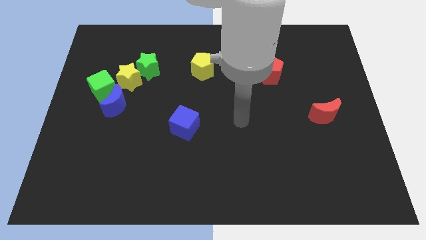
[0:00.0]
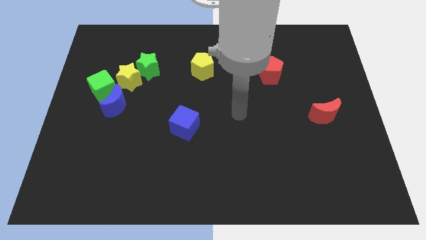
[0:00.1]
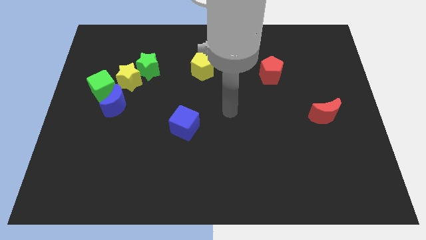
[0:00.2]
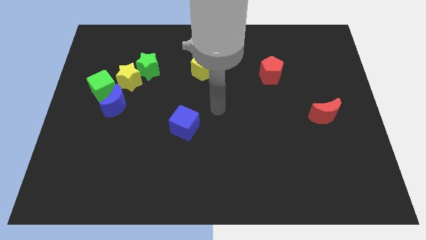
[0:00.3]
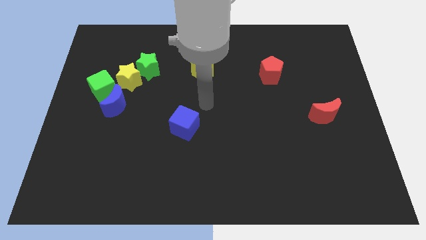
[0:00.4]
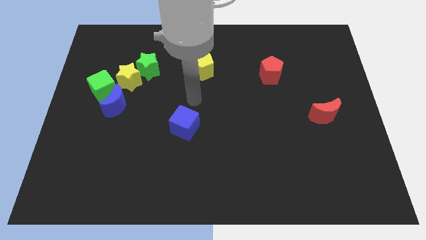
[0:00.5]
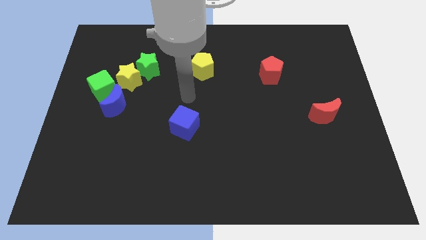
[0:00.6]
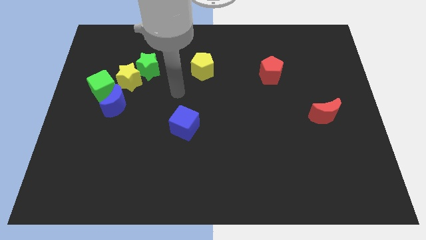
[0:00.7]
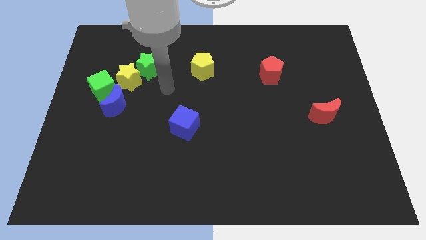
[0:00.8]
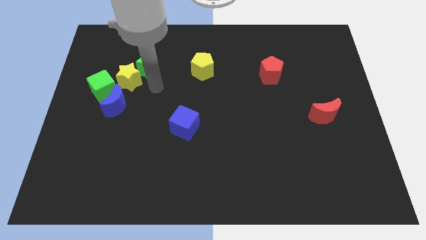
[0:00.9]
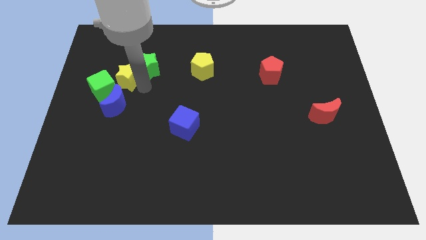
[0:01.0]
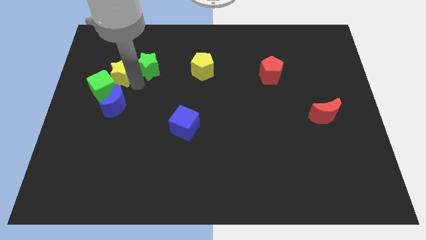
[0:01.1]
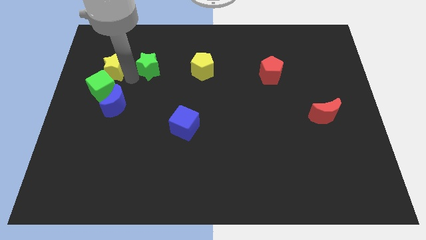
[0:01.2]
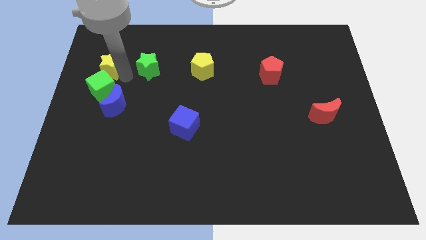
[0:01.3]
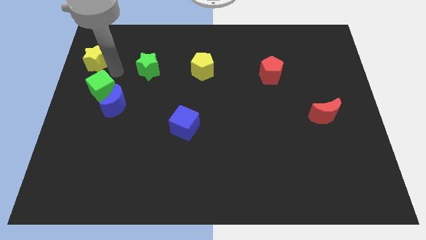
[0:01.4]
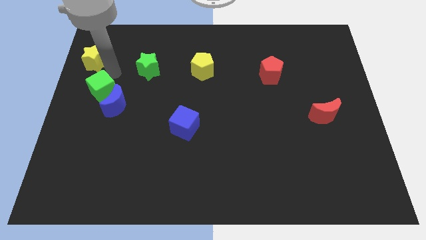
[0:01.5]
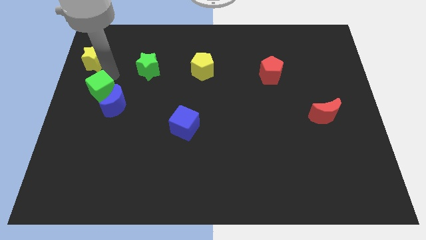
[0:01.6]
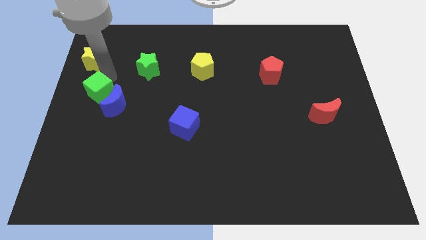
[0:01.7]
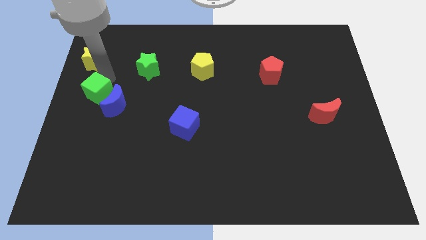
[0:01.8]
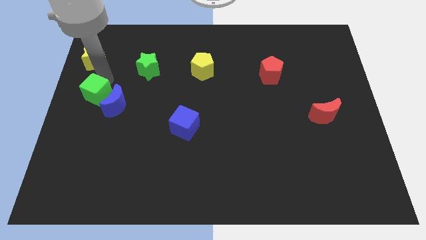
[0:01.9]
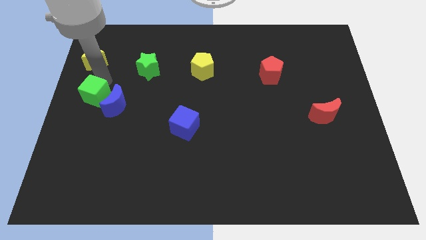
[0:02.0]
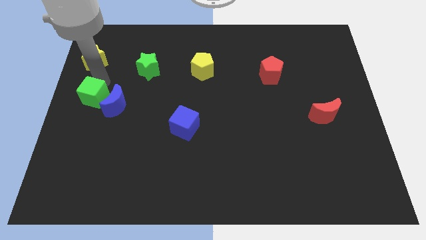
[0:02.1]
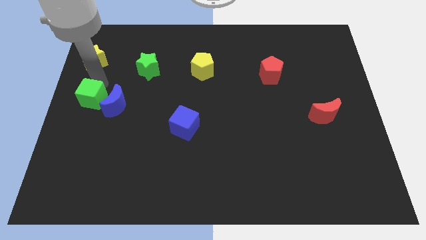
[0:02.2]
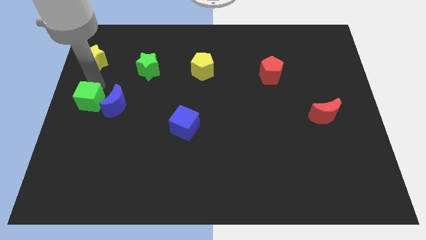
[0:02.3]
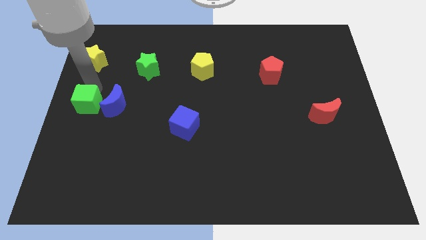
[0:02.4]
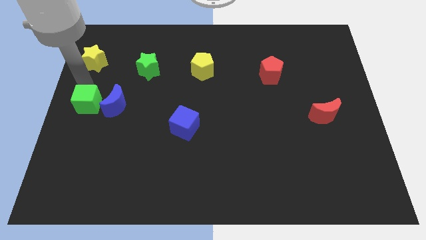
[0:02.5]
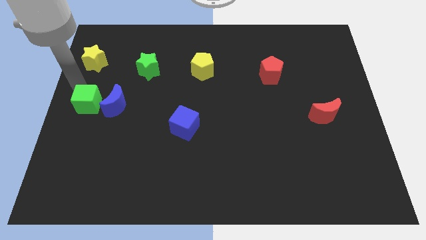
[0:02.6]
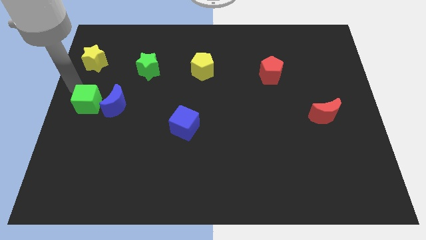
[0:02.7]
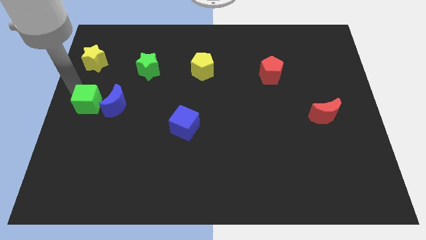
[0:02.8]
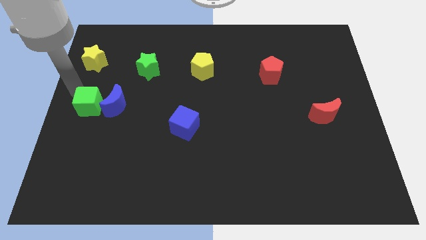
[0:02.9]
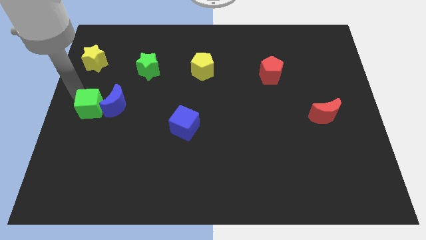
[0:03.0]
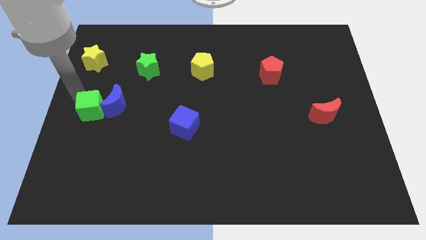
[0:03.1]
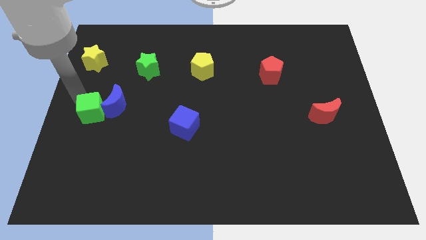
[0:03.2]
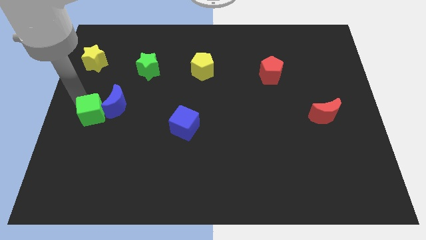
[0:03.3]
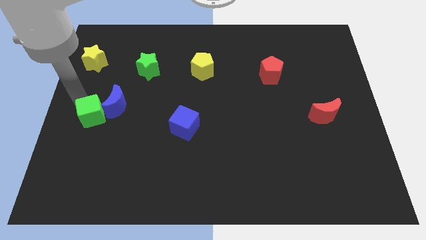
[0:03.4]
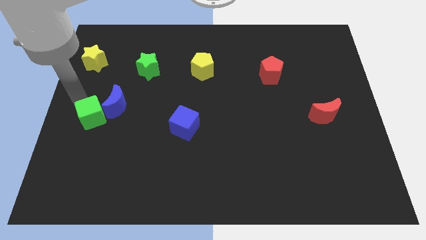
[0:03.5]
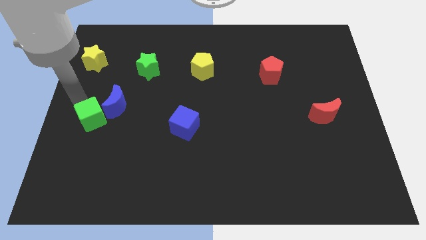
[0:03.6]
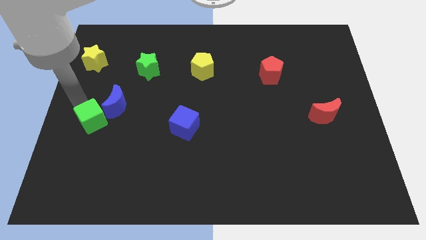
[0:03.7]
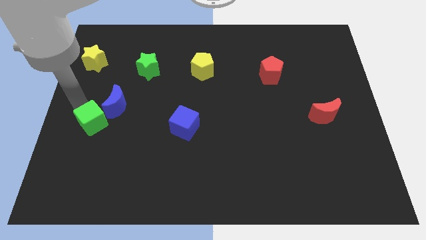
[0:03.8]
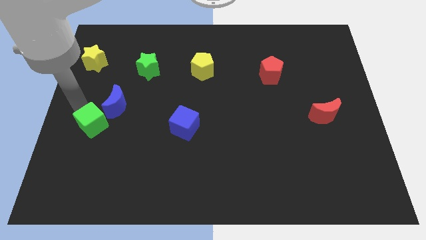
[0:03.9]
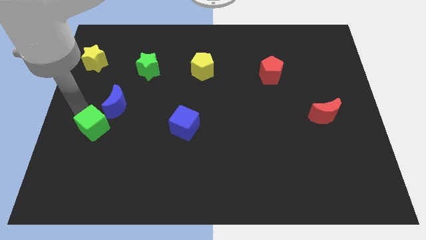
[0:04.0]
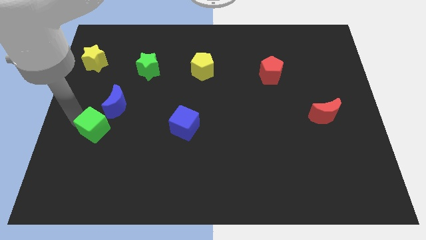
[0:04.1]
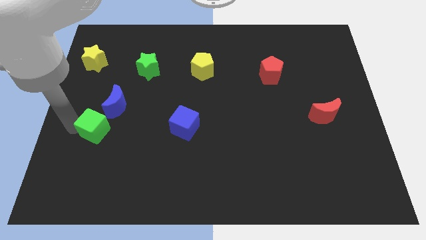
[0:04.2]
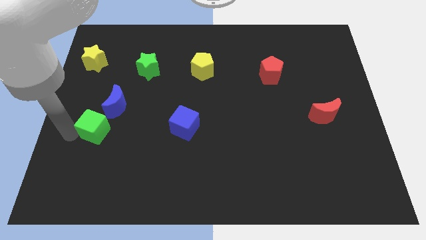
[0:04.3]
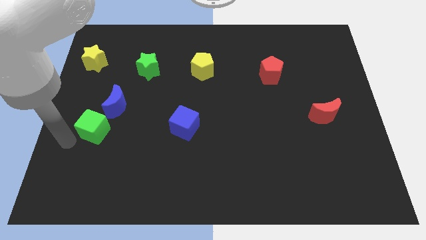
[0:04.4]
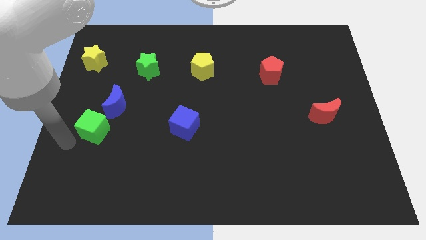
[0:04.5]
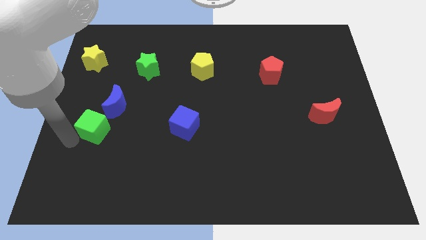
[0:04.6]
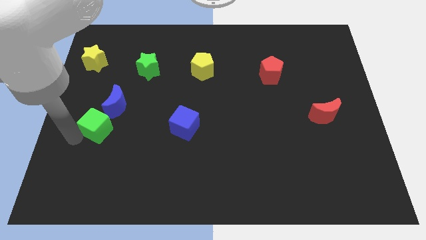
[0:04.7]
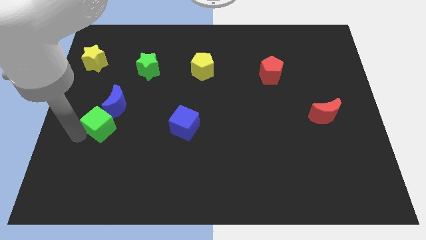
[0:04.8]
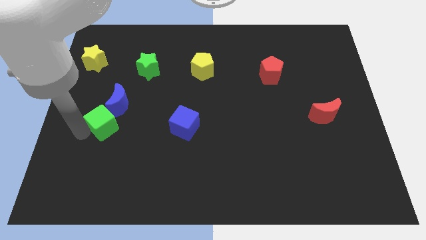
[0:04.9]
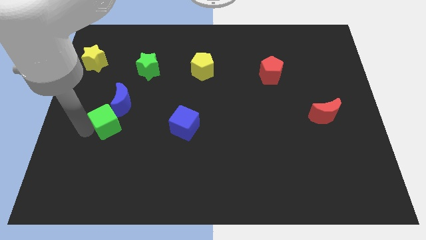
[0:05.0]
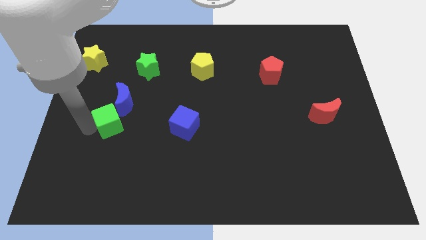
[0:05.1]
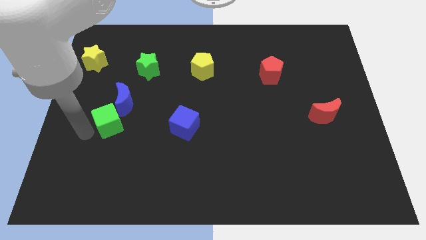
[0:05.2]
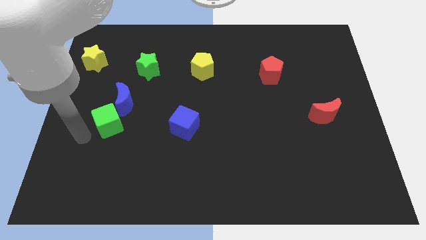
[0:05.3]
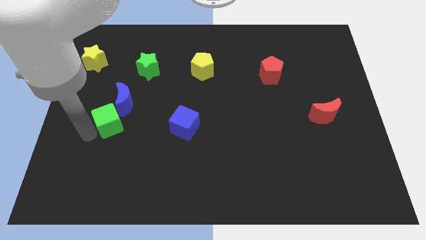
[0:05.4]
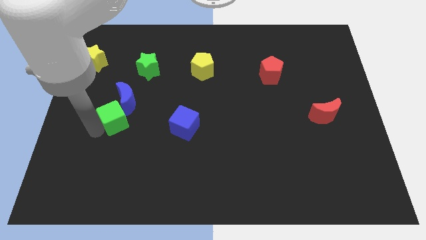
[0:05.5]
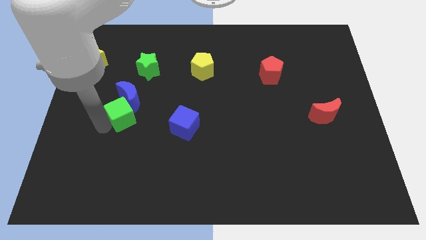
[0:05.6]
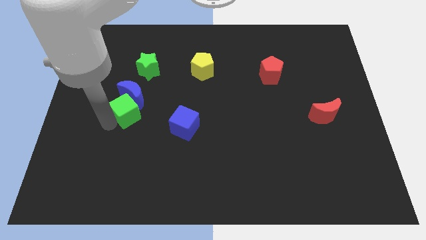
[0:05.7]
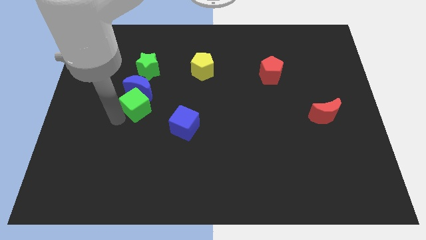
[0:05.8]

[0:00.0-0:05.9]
slightly push the green cube to the right

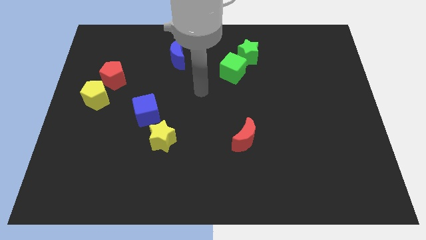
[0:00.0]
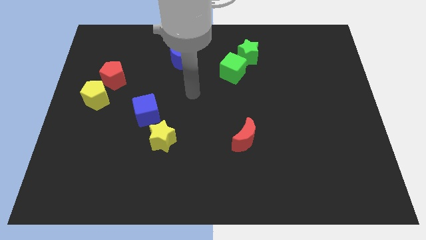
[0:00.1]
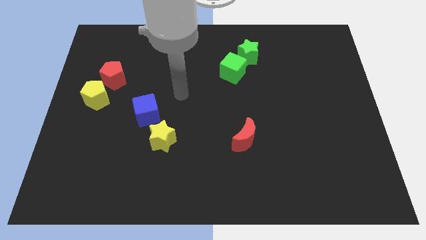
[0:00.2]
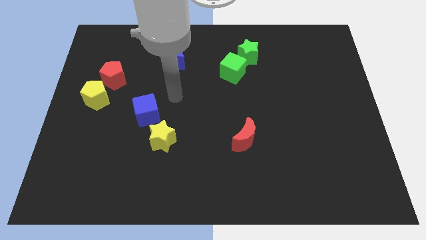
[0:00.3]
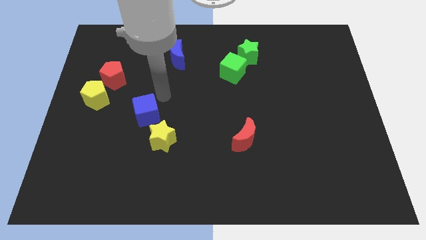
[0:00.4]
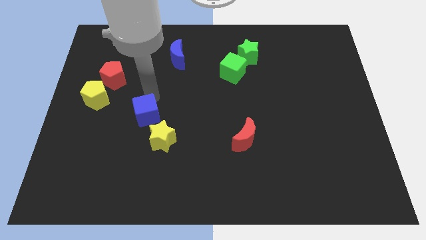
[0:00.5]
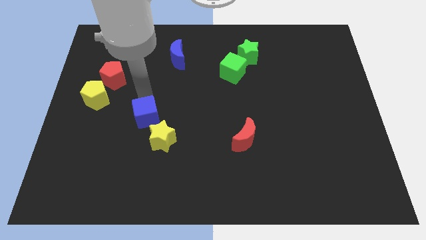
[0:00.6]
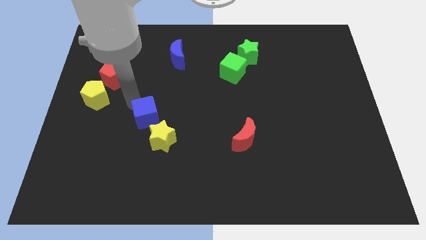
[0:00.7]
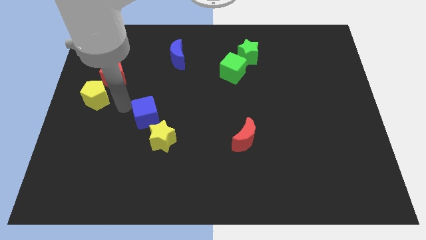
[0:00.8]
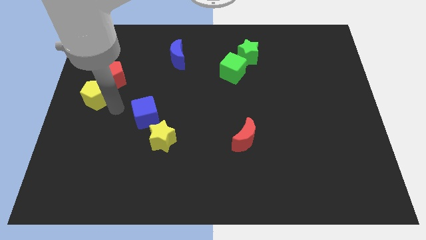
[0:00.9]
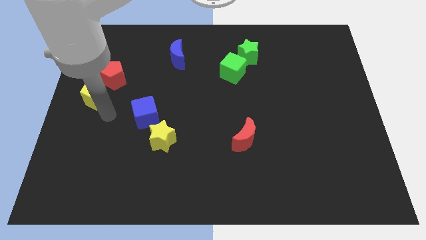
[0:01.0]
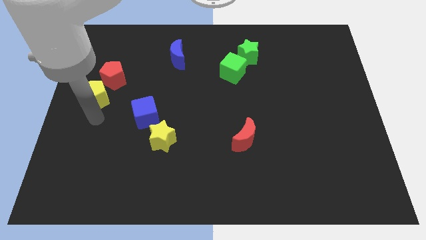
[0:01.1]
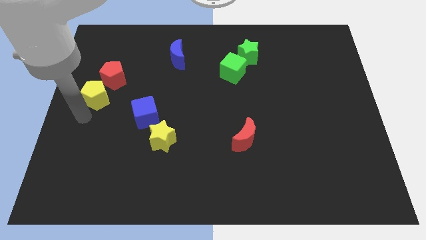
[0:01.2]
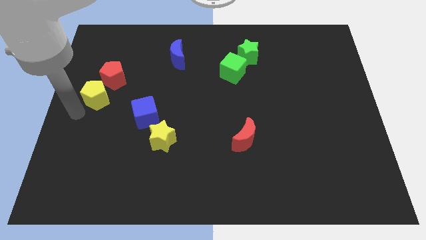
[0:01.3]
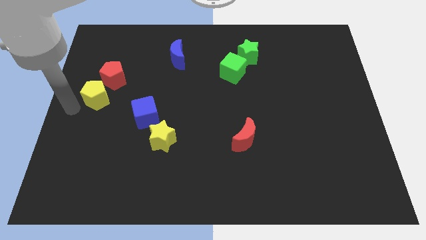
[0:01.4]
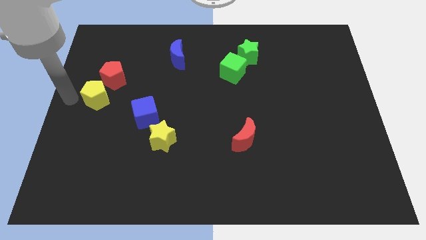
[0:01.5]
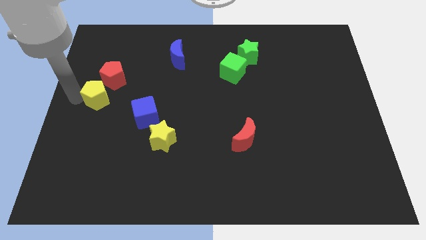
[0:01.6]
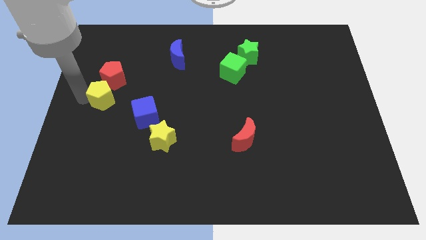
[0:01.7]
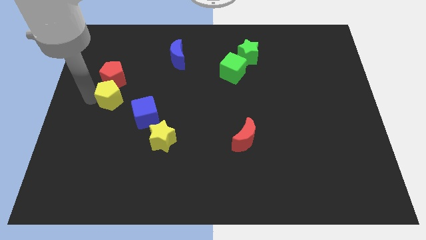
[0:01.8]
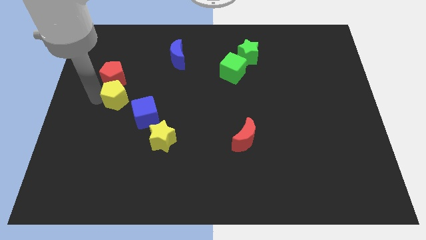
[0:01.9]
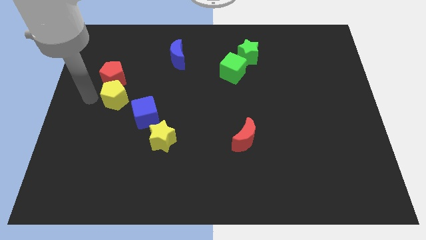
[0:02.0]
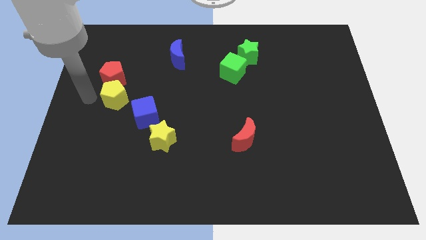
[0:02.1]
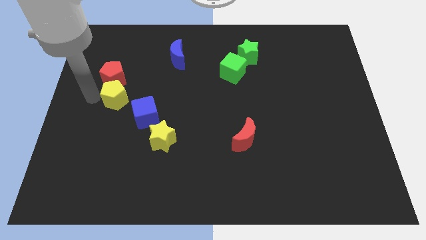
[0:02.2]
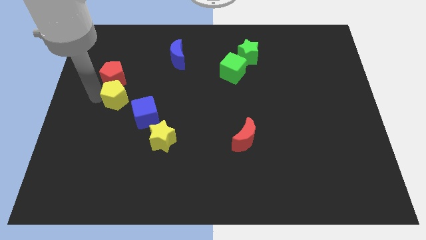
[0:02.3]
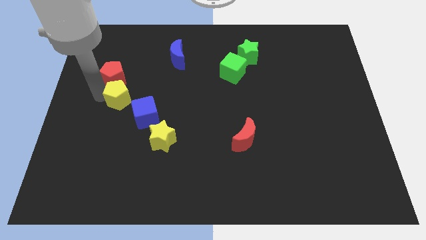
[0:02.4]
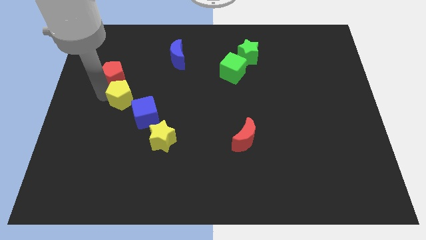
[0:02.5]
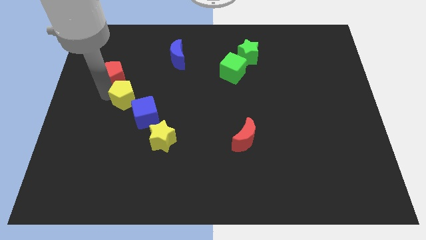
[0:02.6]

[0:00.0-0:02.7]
slightly move the yellow pentagon right
